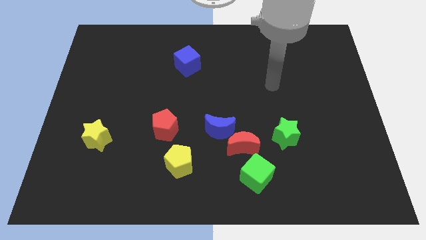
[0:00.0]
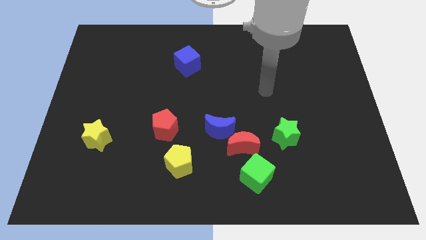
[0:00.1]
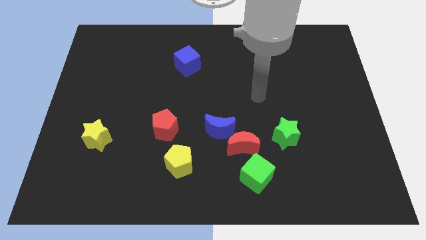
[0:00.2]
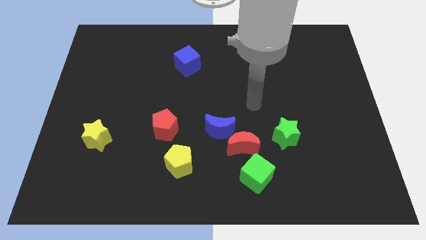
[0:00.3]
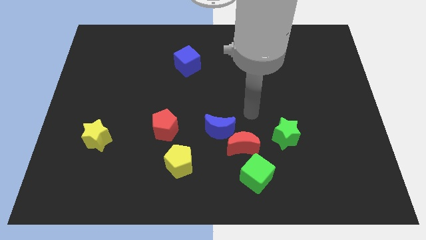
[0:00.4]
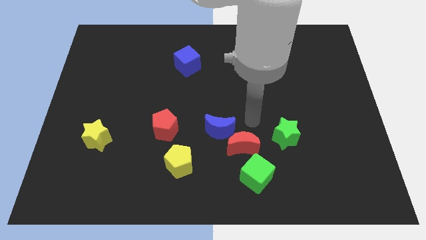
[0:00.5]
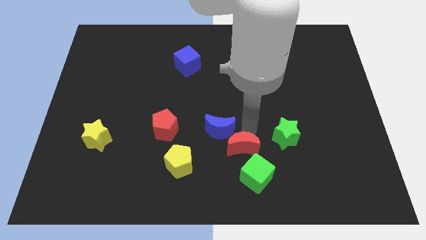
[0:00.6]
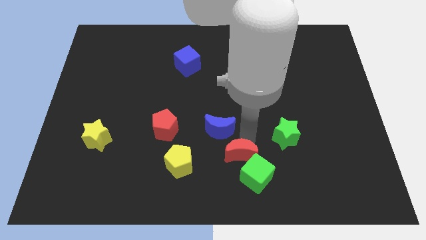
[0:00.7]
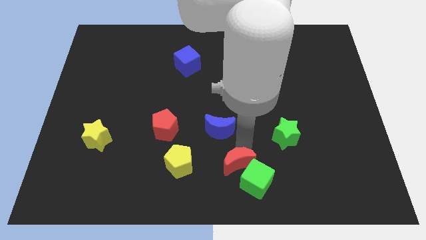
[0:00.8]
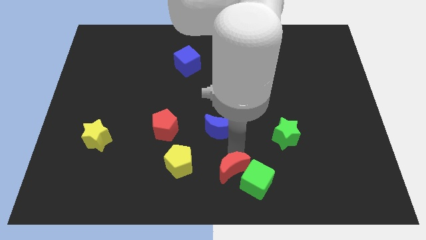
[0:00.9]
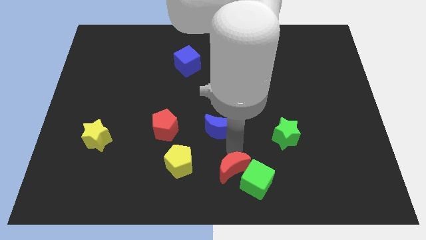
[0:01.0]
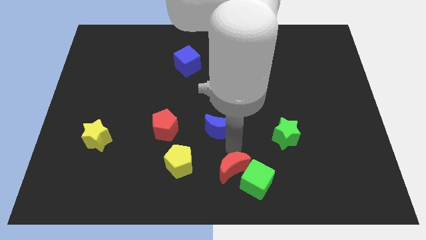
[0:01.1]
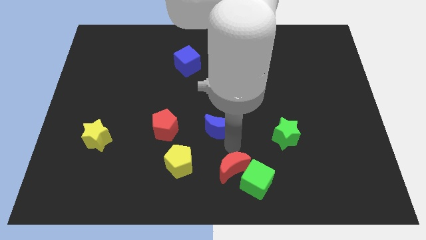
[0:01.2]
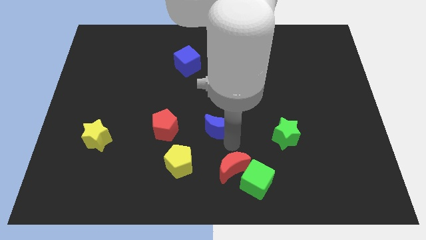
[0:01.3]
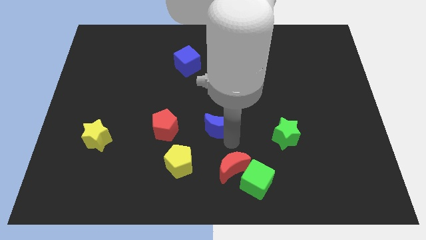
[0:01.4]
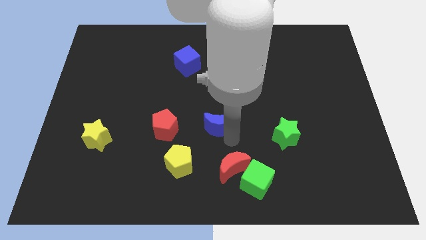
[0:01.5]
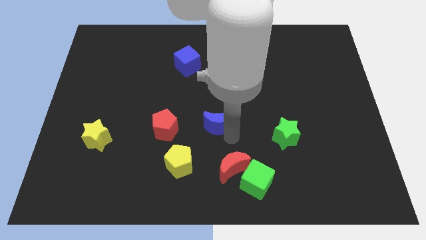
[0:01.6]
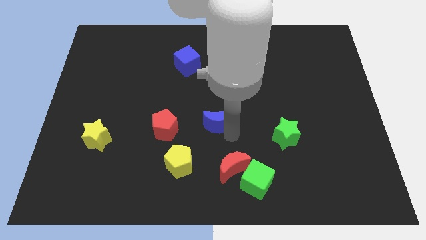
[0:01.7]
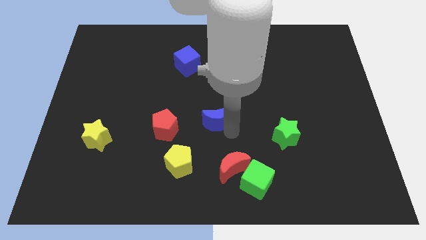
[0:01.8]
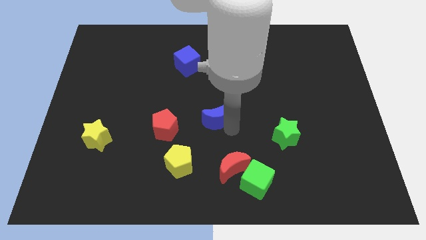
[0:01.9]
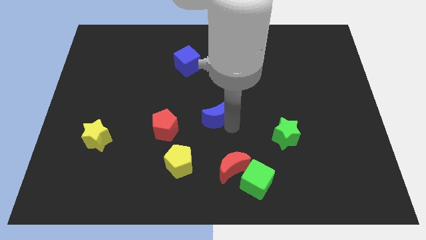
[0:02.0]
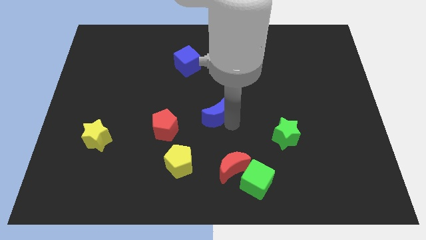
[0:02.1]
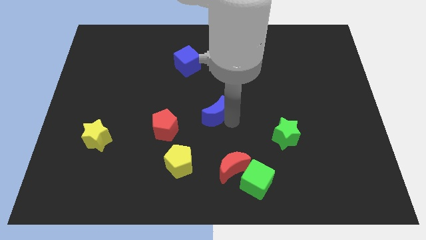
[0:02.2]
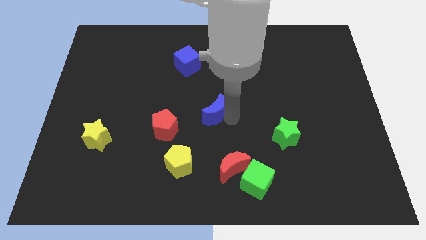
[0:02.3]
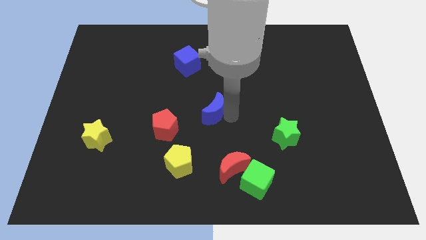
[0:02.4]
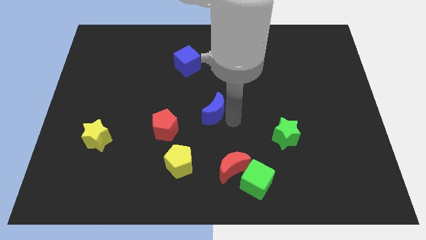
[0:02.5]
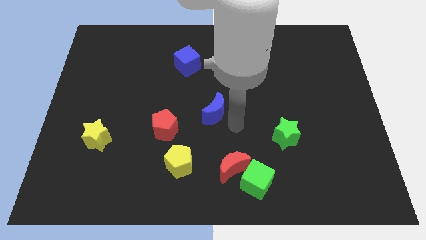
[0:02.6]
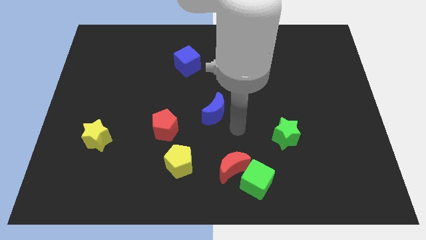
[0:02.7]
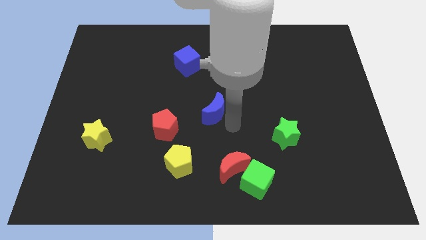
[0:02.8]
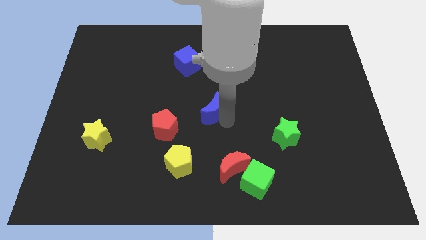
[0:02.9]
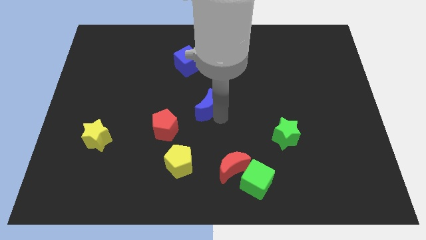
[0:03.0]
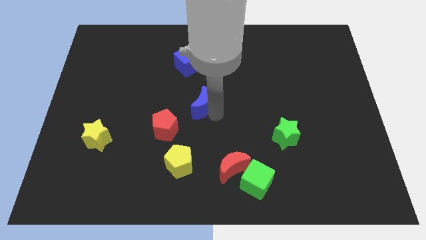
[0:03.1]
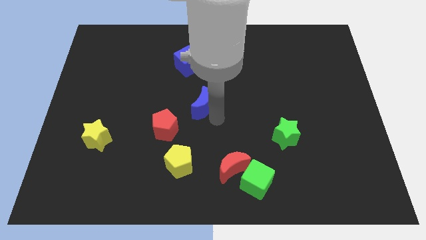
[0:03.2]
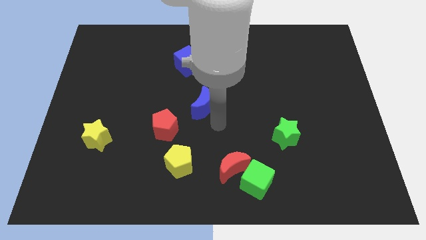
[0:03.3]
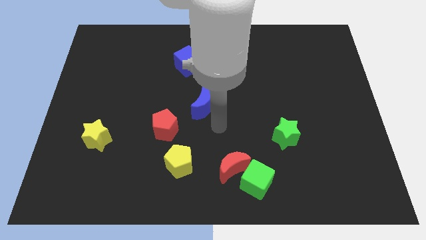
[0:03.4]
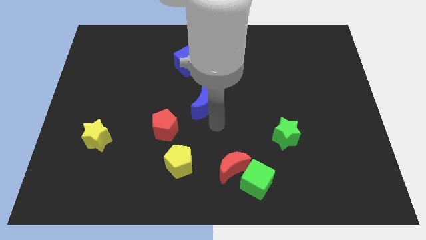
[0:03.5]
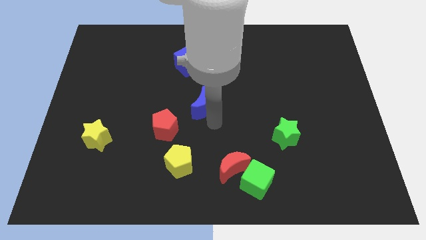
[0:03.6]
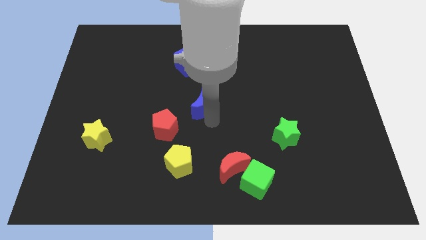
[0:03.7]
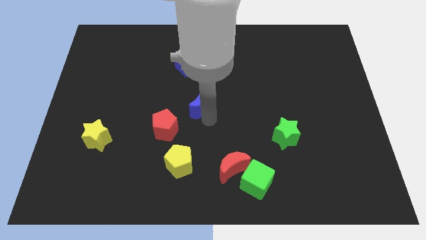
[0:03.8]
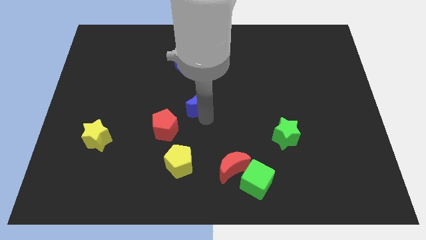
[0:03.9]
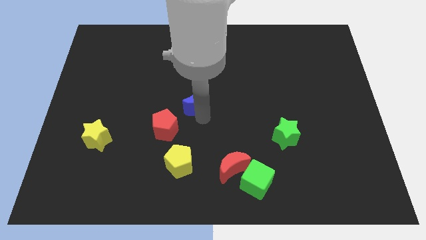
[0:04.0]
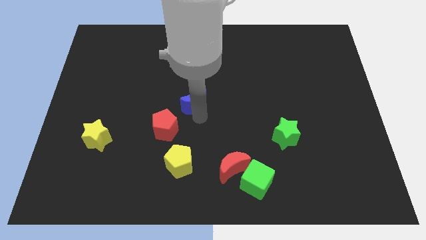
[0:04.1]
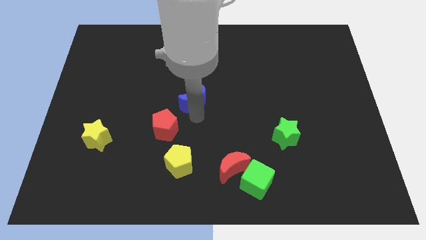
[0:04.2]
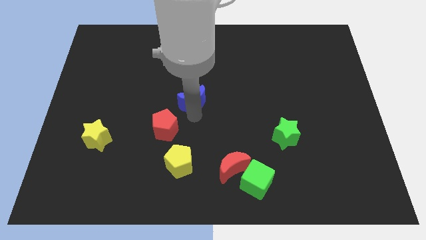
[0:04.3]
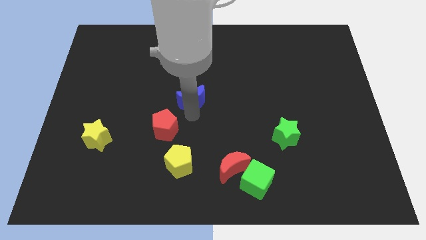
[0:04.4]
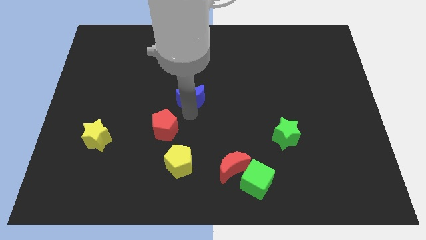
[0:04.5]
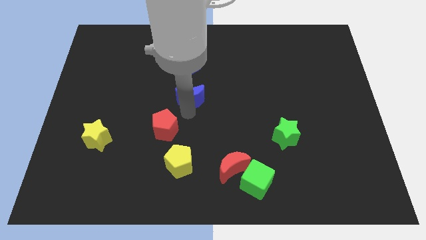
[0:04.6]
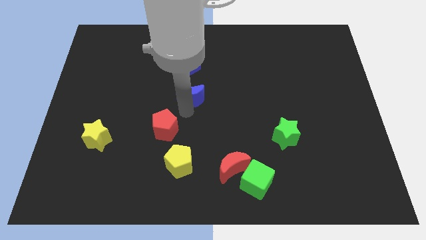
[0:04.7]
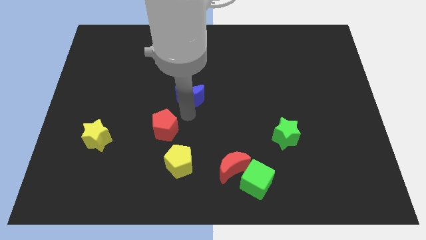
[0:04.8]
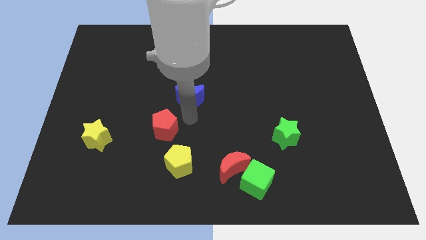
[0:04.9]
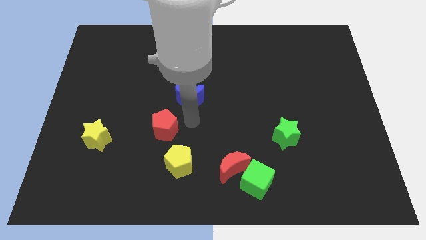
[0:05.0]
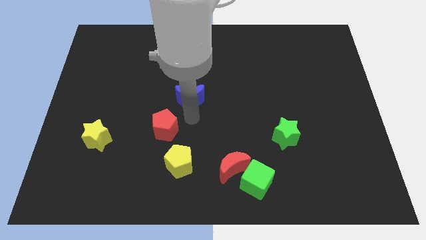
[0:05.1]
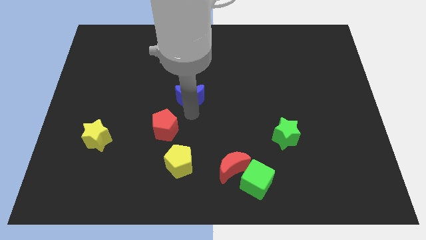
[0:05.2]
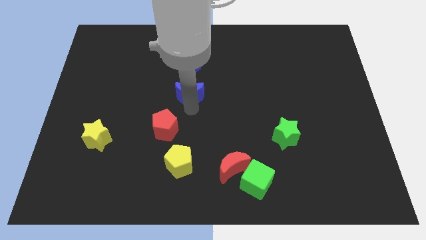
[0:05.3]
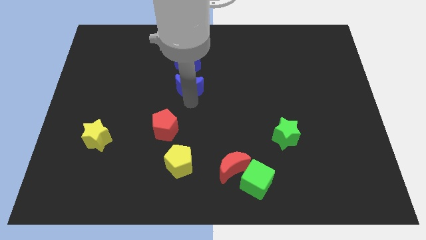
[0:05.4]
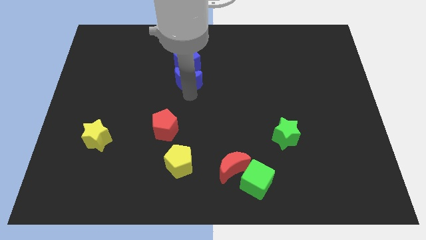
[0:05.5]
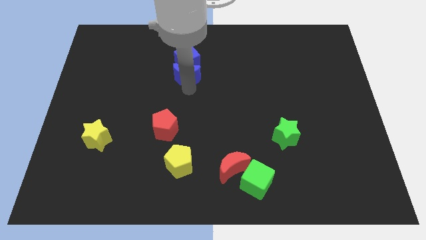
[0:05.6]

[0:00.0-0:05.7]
slide the blue moon next to the blue cube

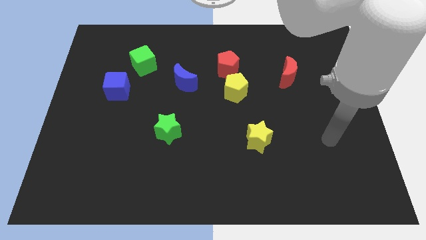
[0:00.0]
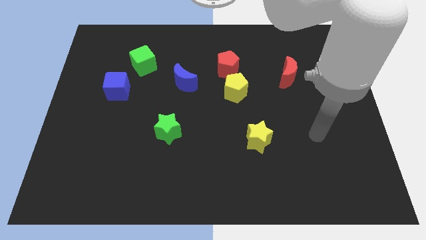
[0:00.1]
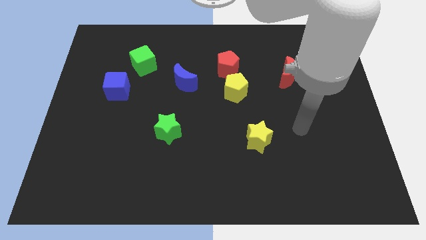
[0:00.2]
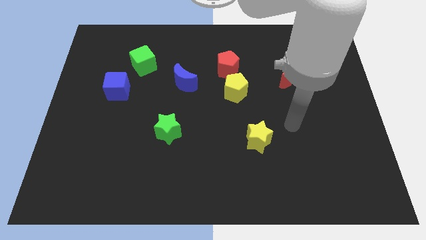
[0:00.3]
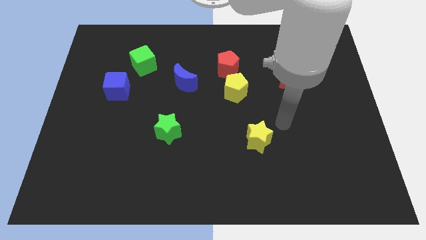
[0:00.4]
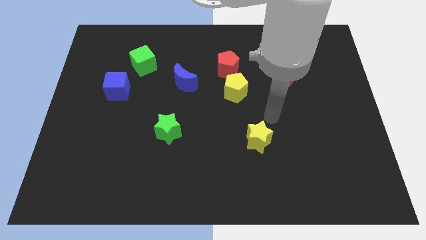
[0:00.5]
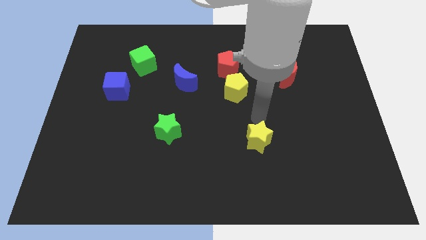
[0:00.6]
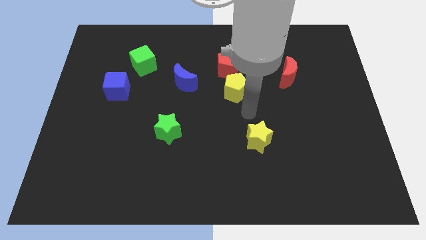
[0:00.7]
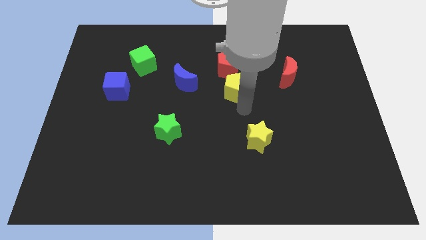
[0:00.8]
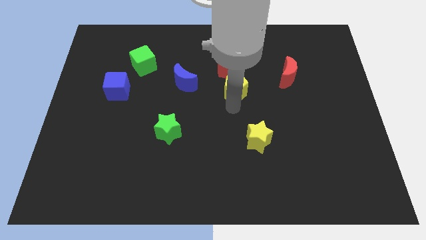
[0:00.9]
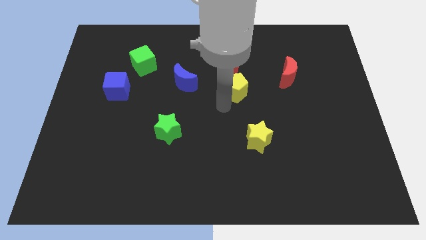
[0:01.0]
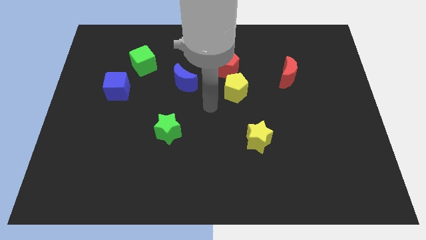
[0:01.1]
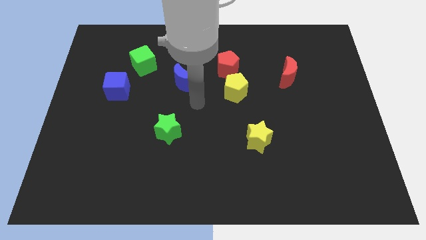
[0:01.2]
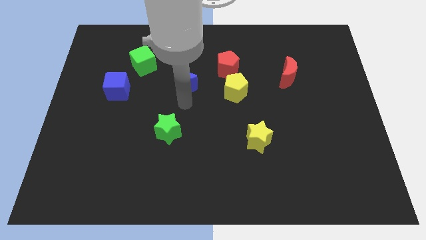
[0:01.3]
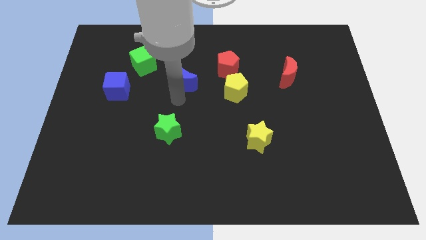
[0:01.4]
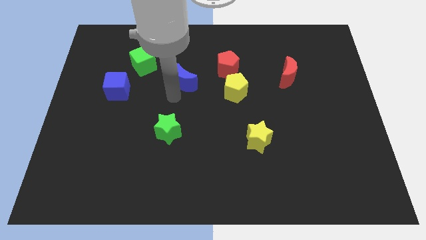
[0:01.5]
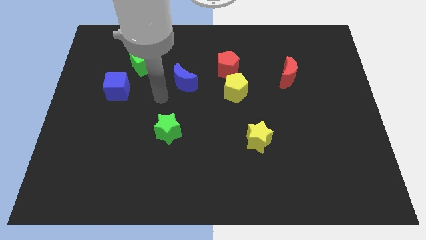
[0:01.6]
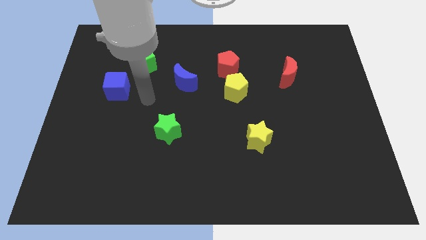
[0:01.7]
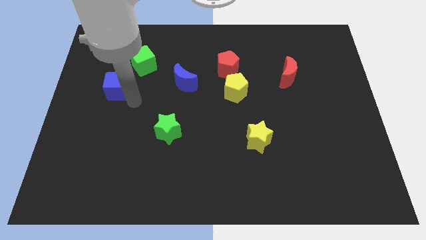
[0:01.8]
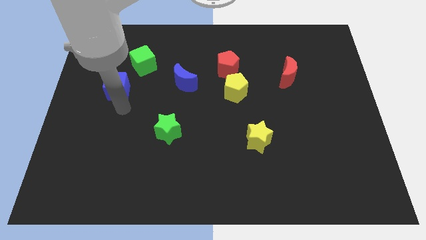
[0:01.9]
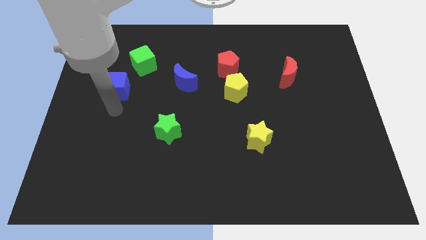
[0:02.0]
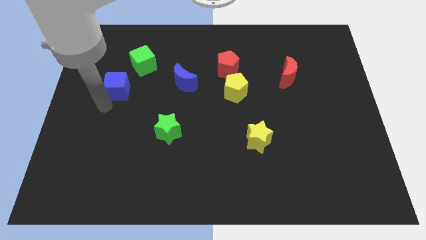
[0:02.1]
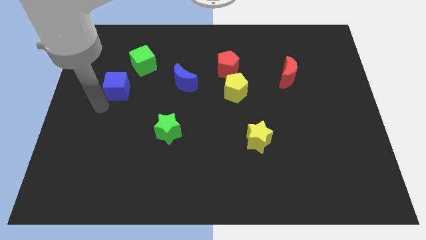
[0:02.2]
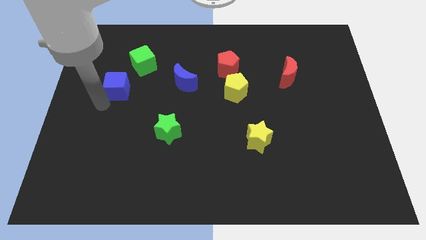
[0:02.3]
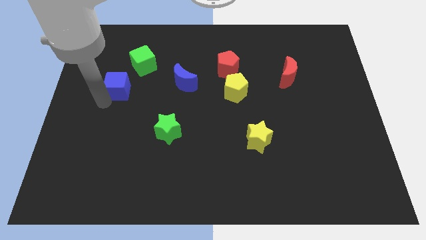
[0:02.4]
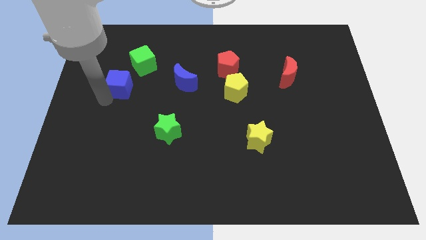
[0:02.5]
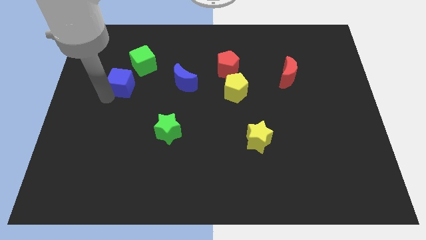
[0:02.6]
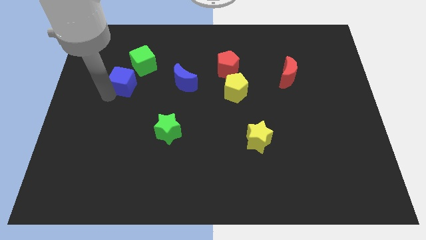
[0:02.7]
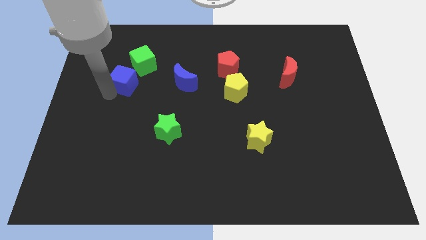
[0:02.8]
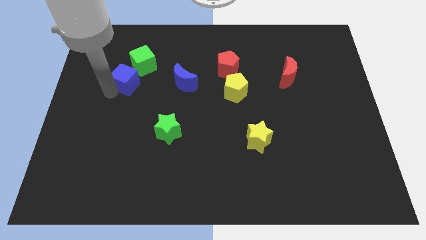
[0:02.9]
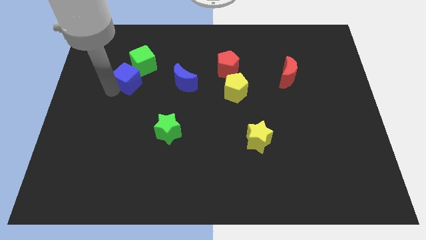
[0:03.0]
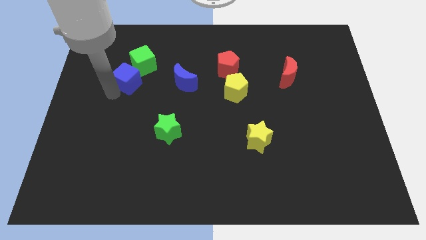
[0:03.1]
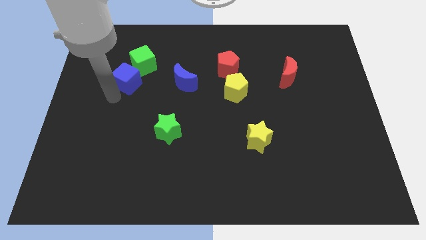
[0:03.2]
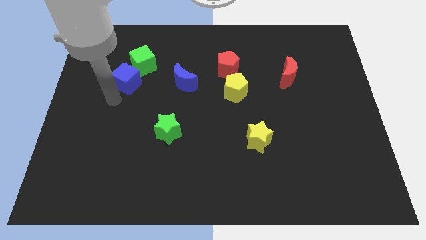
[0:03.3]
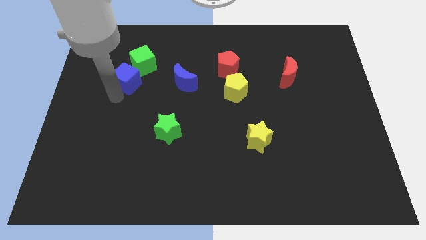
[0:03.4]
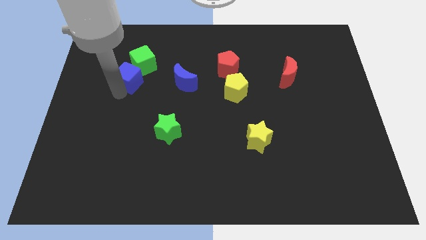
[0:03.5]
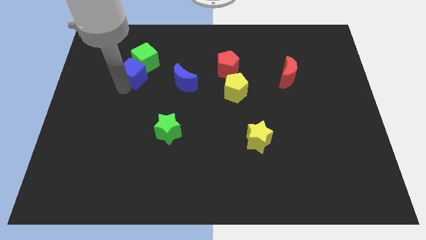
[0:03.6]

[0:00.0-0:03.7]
slide the blue cube towards the green cube
